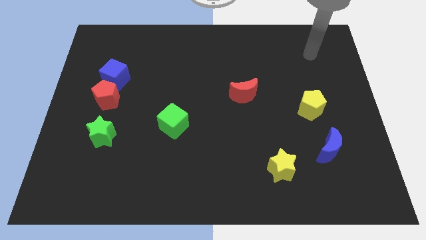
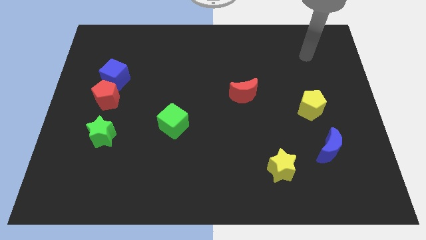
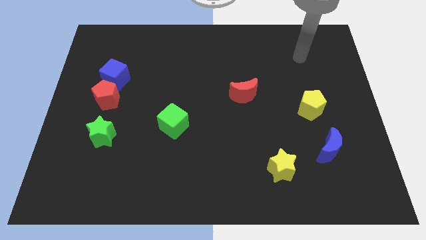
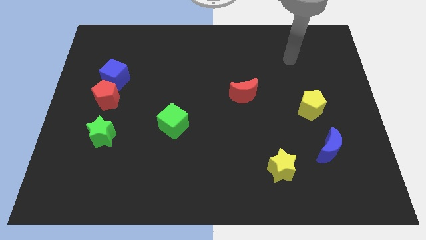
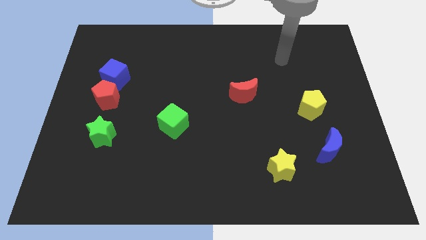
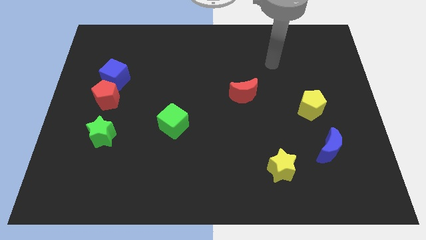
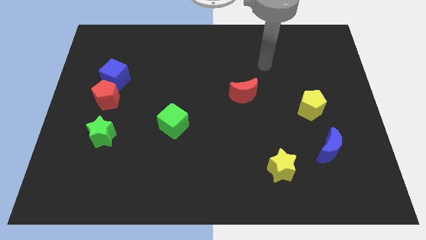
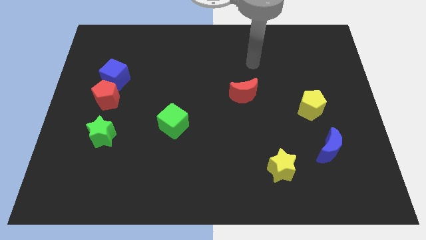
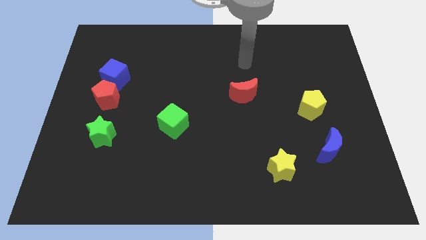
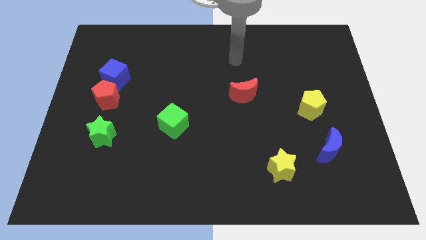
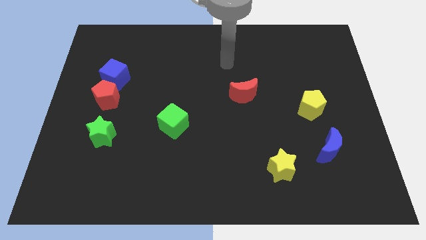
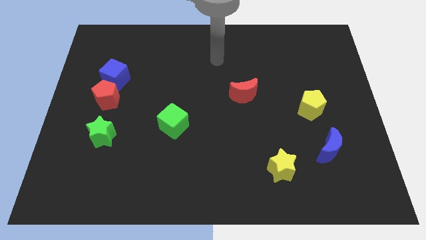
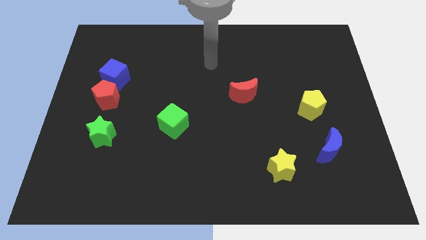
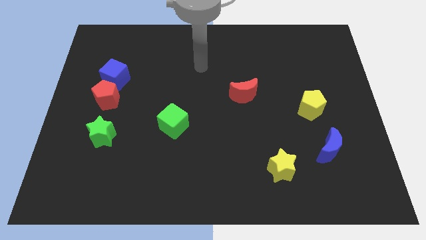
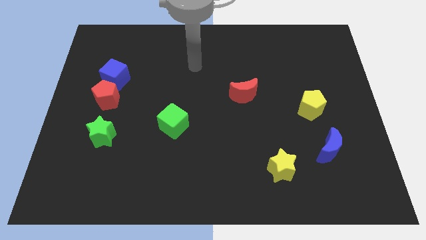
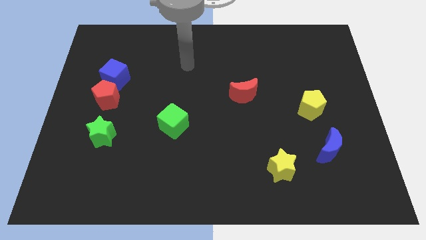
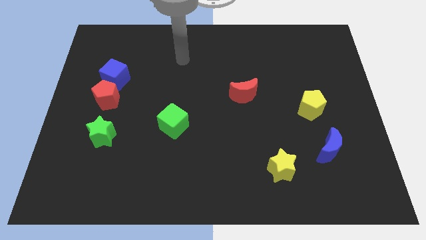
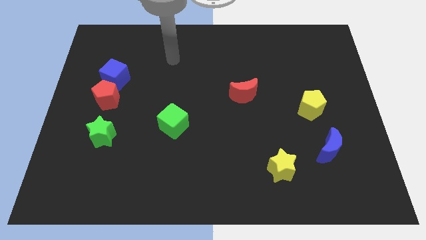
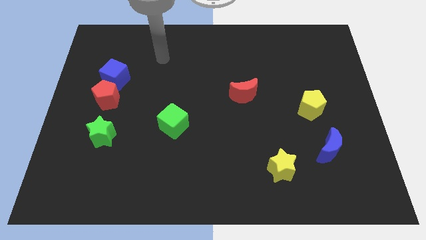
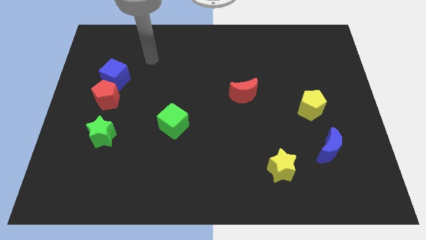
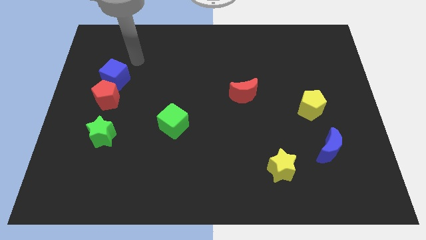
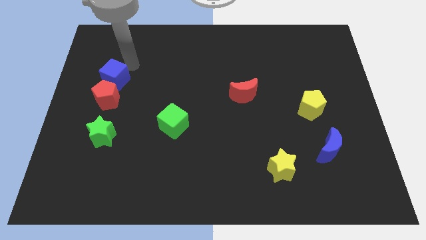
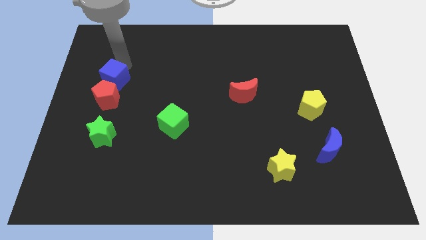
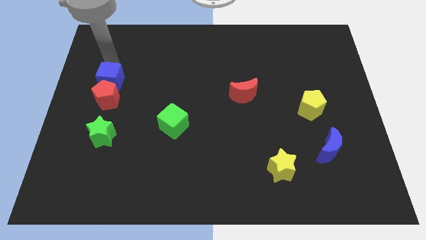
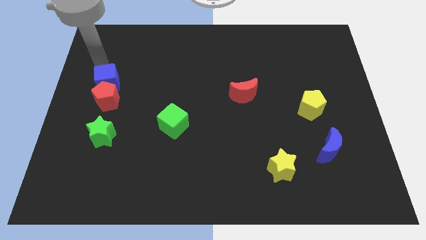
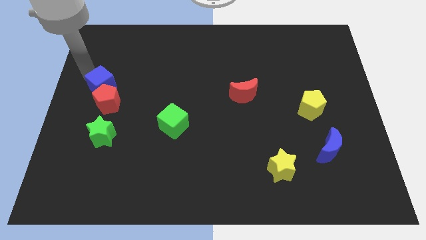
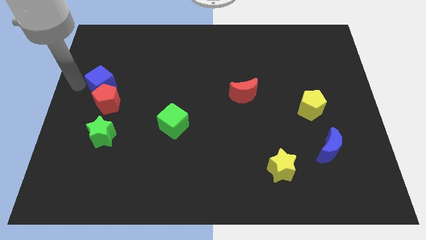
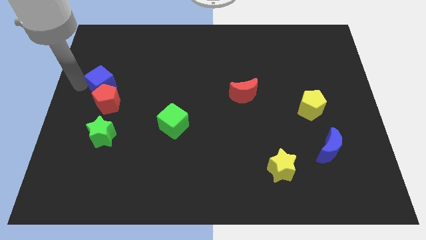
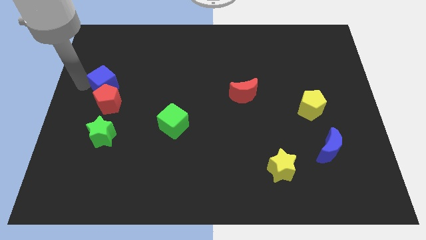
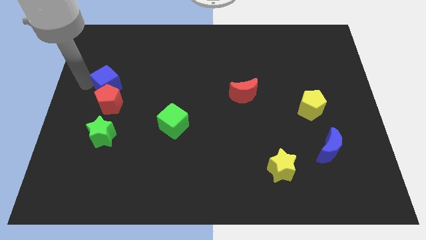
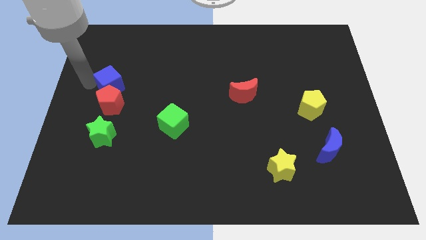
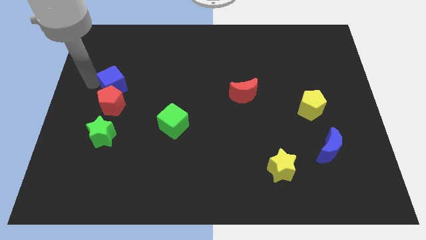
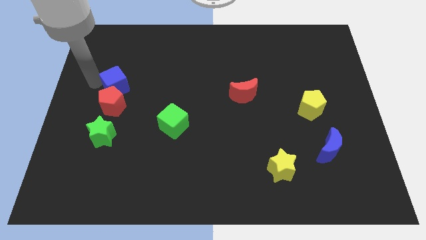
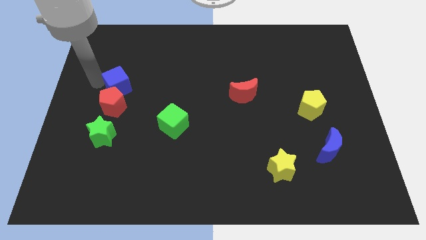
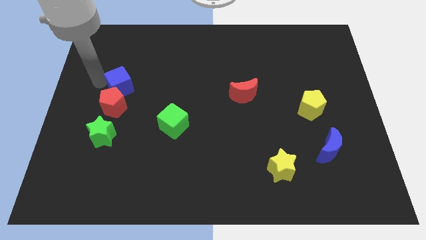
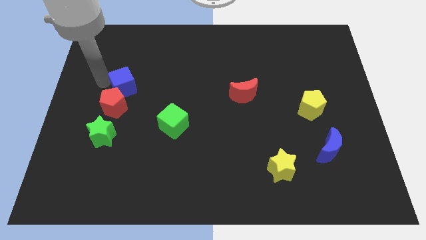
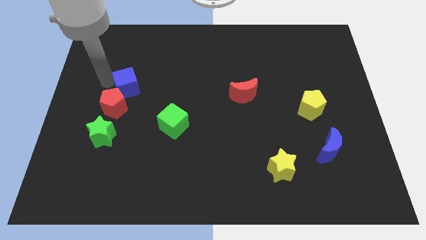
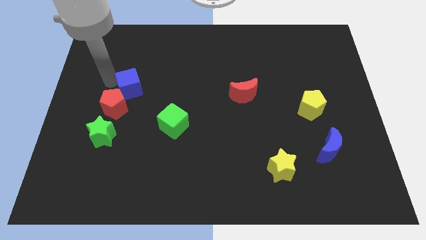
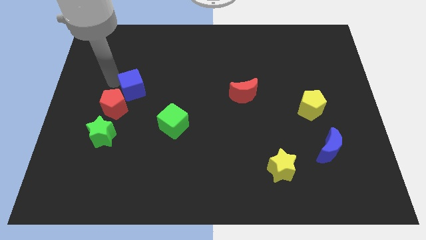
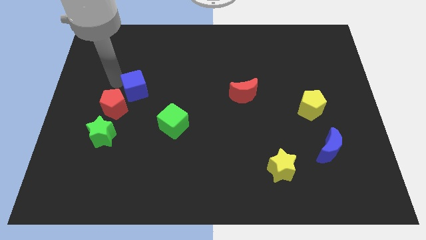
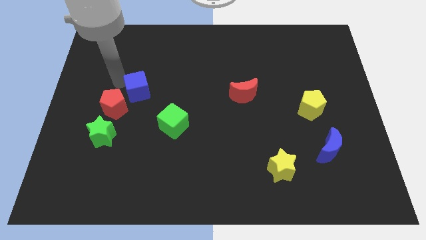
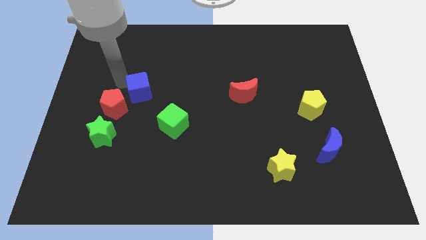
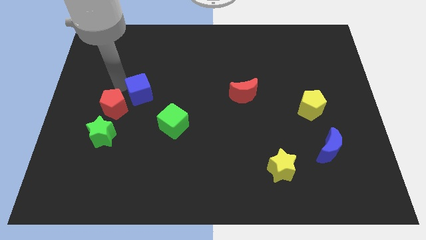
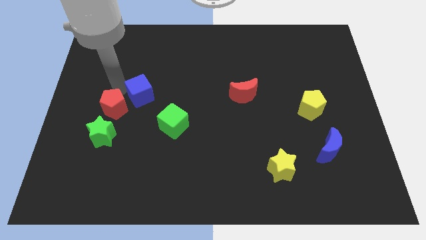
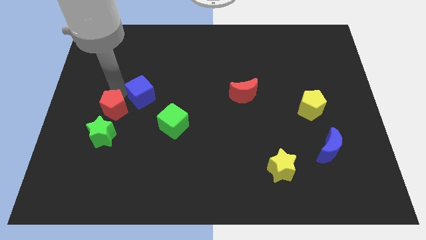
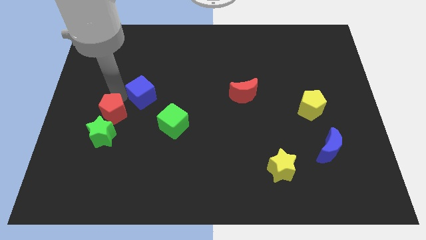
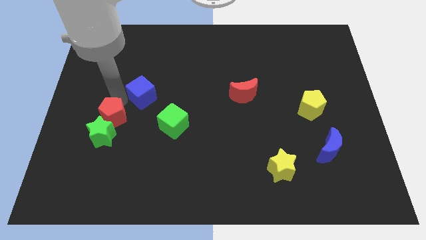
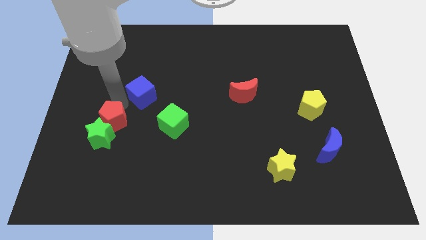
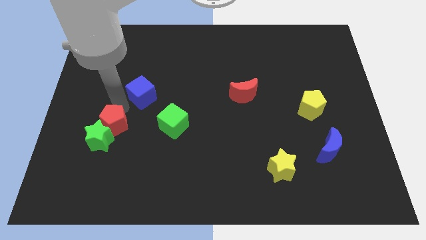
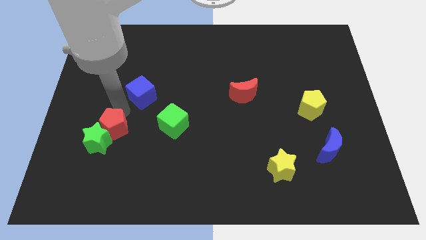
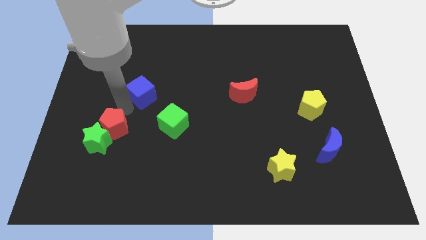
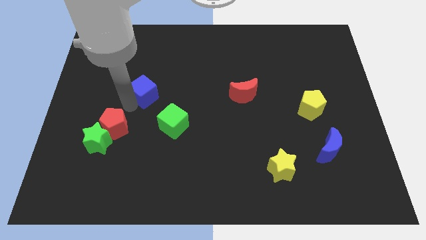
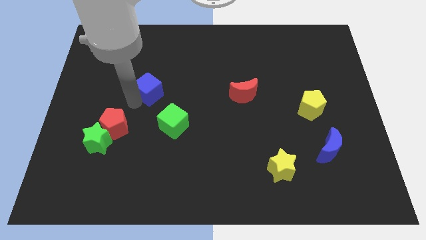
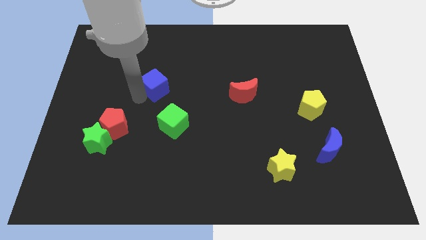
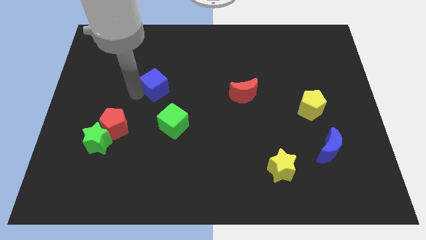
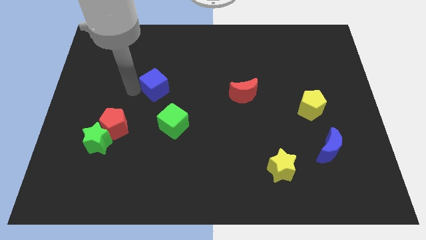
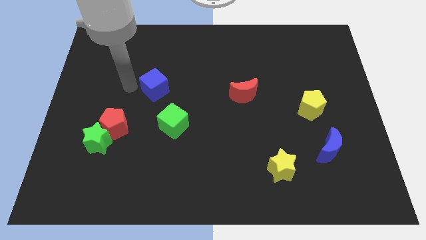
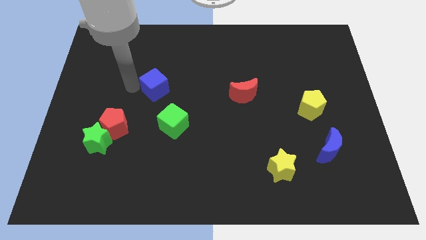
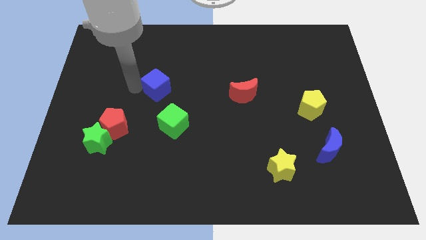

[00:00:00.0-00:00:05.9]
put the blue cube above the green cube

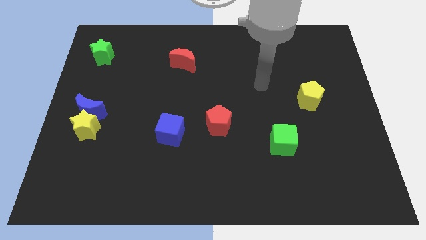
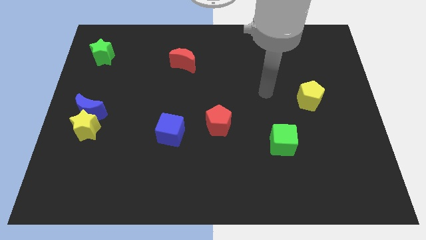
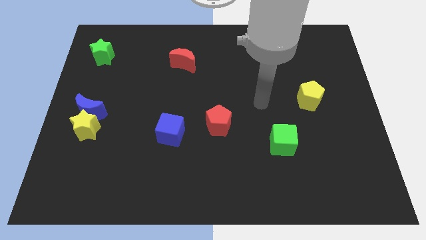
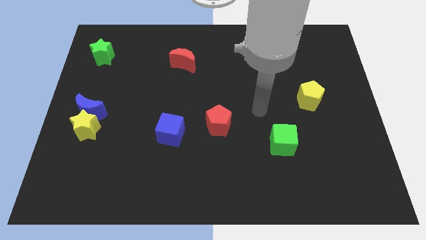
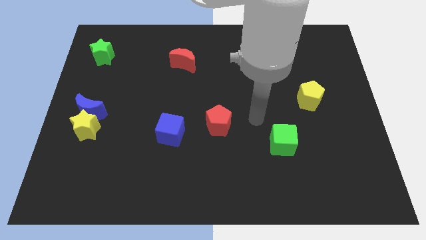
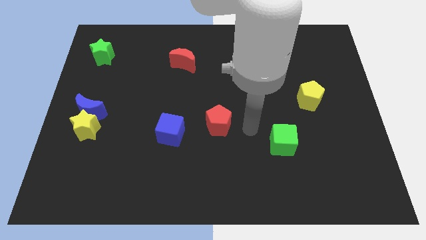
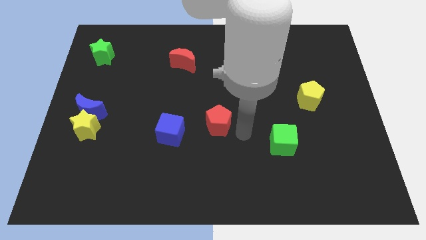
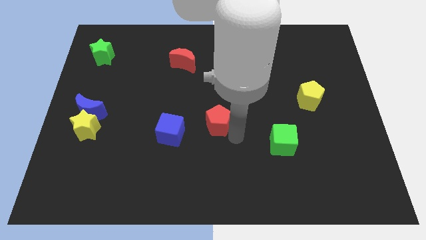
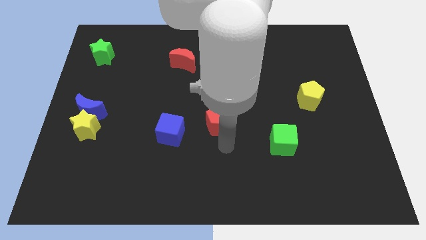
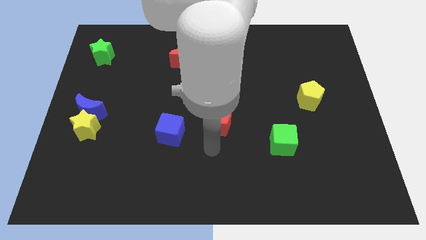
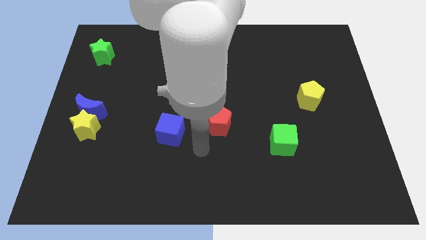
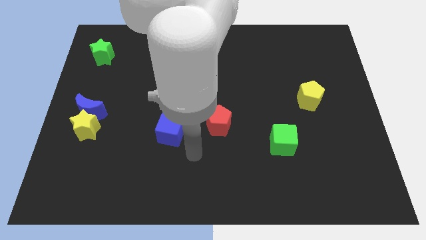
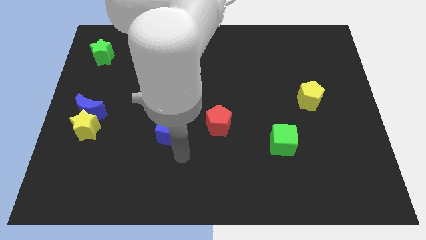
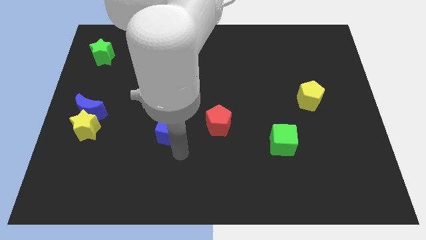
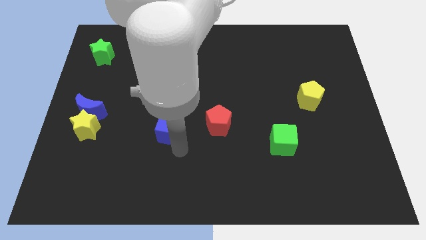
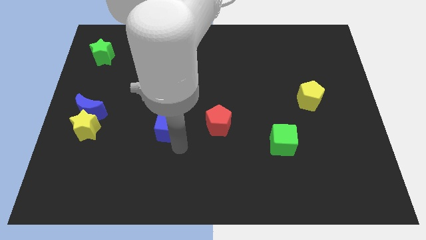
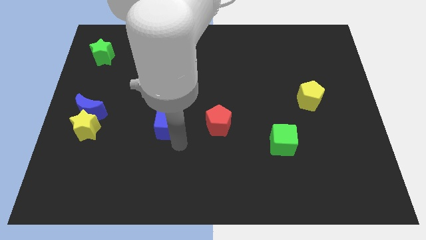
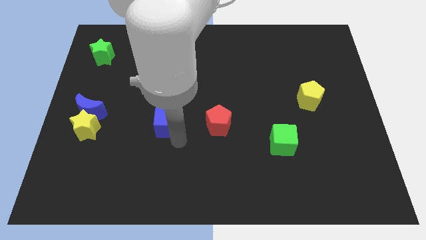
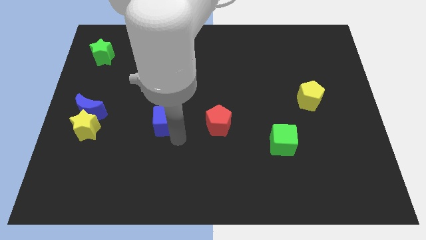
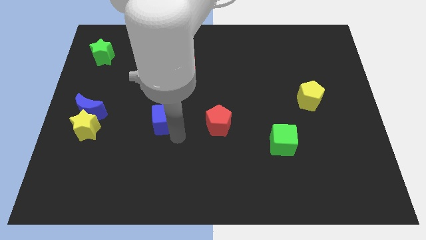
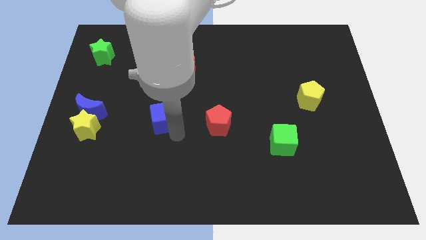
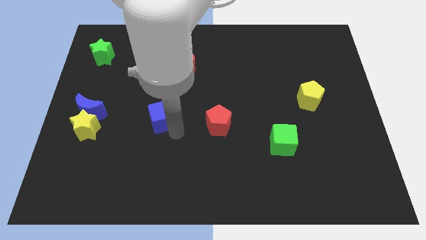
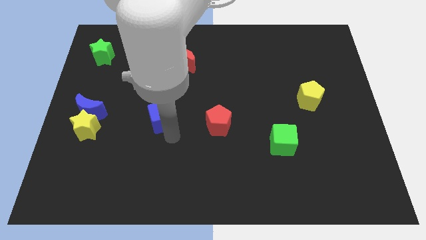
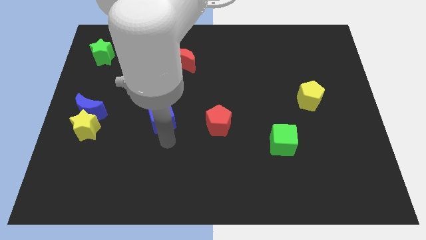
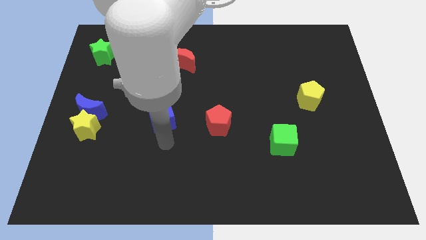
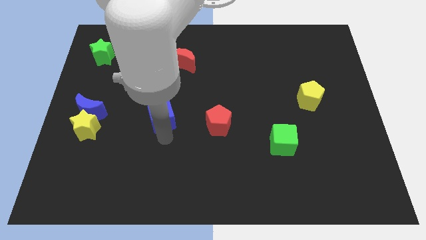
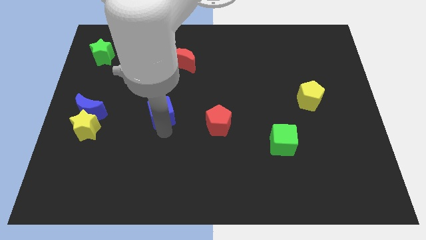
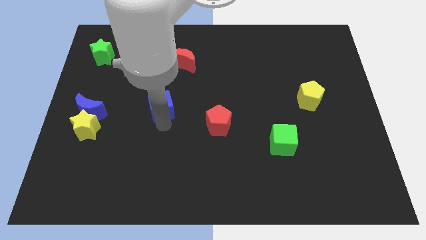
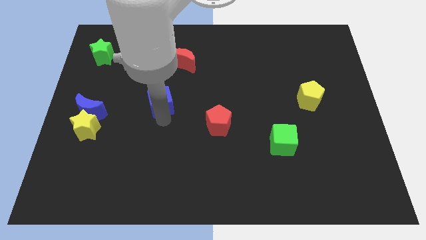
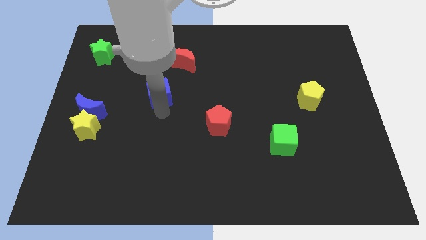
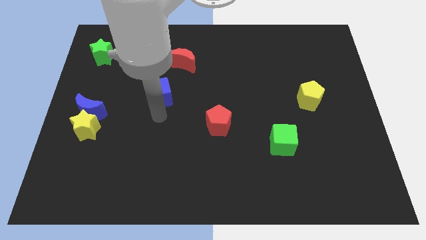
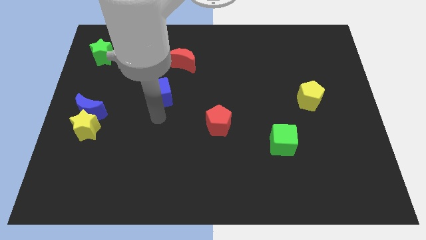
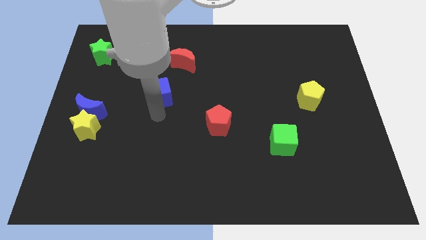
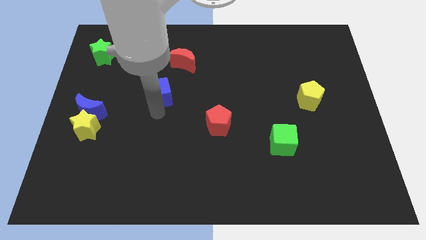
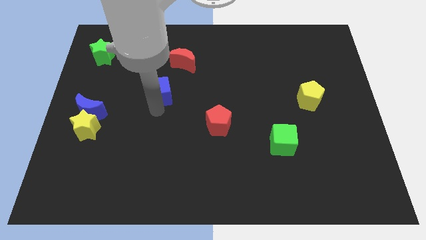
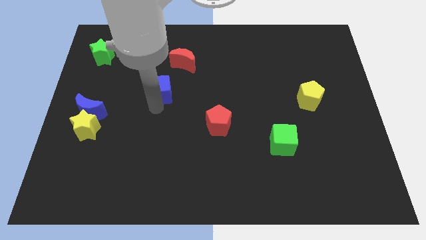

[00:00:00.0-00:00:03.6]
put the blue cube to the bottom left side of the red moon
